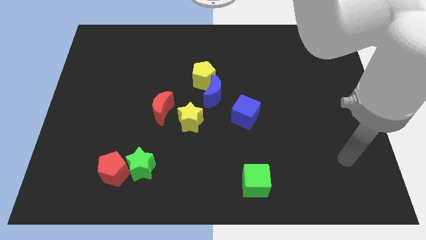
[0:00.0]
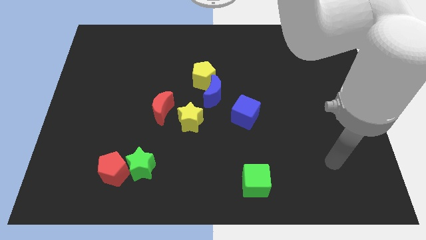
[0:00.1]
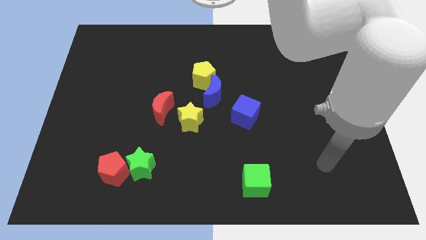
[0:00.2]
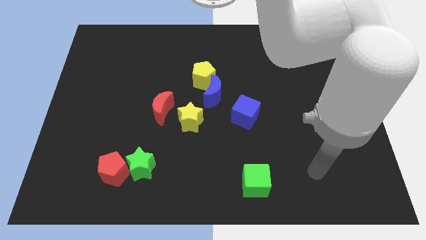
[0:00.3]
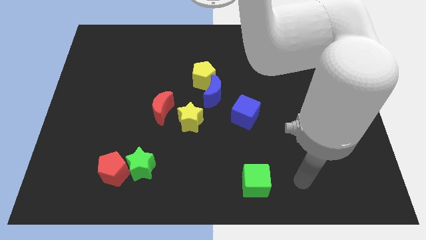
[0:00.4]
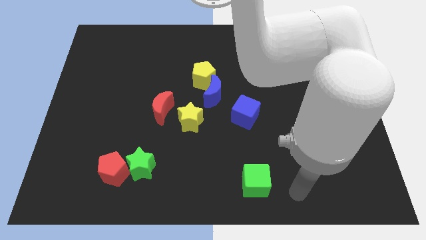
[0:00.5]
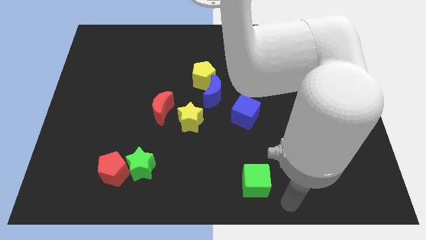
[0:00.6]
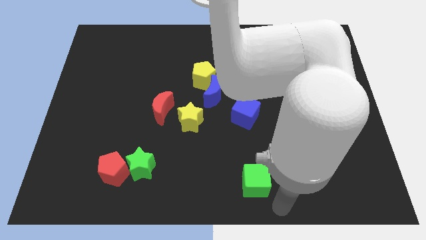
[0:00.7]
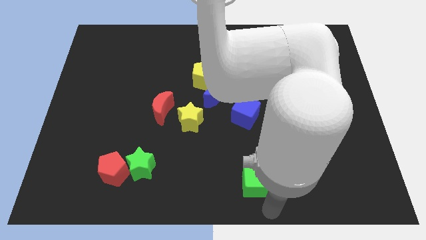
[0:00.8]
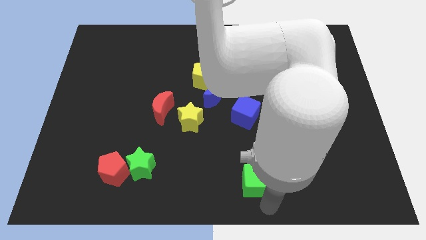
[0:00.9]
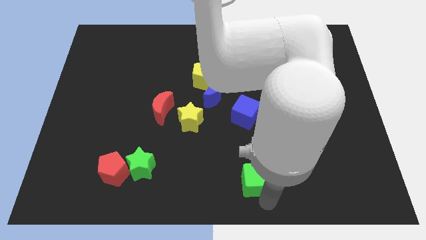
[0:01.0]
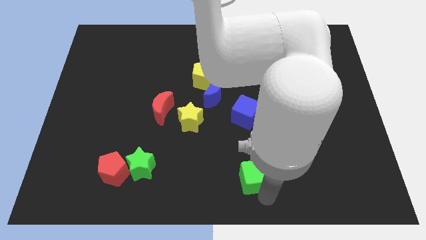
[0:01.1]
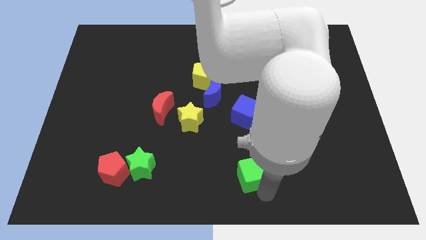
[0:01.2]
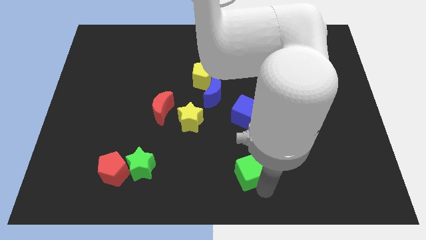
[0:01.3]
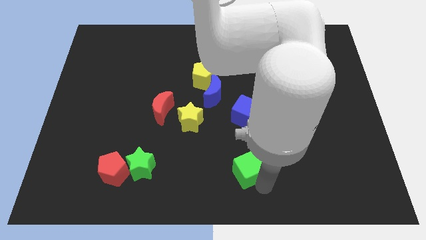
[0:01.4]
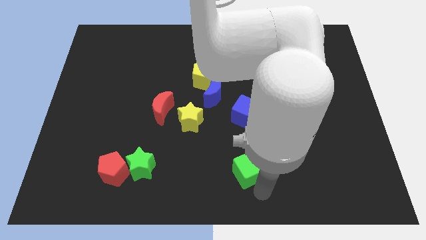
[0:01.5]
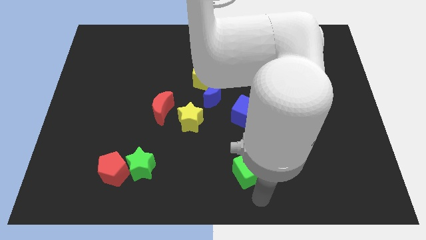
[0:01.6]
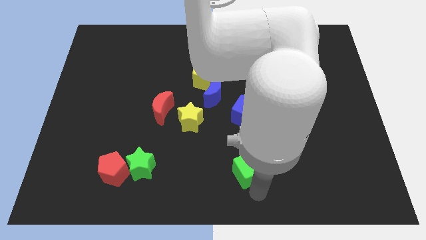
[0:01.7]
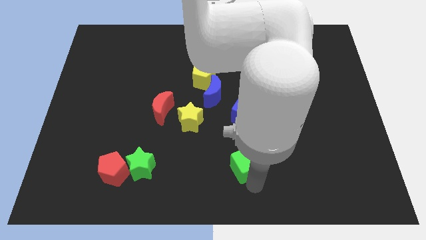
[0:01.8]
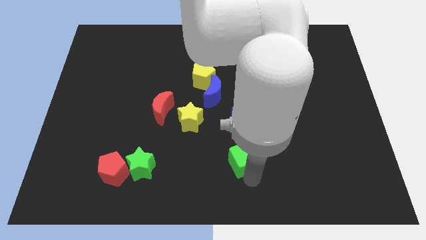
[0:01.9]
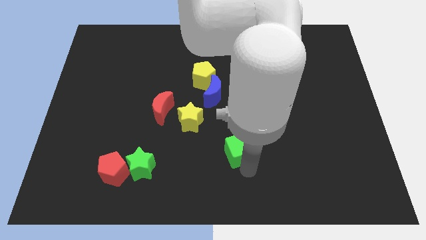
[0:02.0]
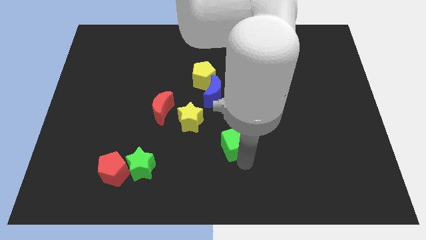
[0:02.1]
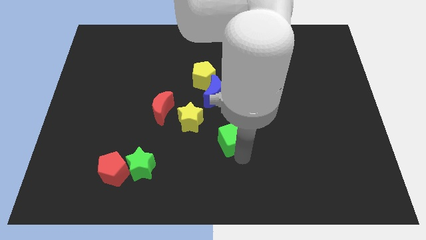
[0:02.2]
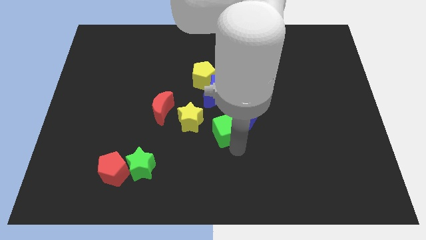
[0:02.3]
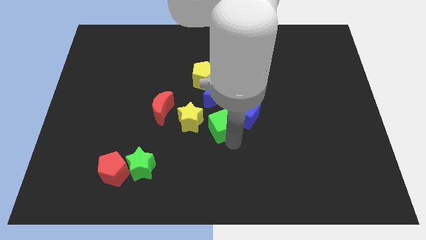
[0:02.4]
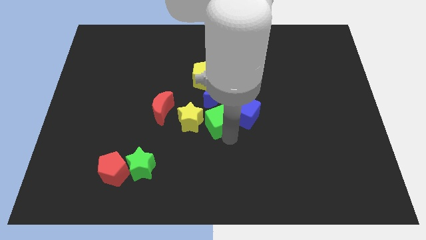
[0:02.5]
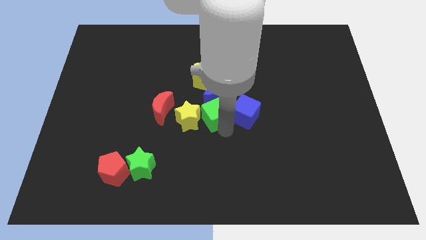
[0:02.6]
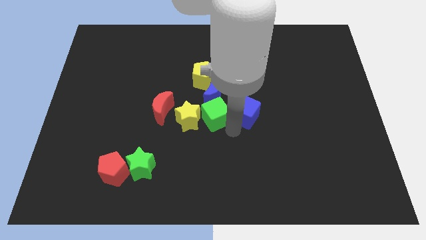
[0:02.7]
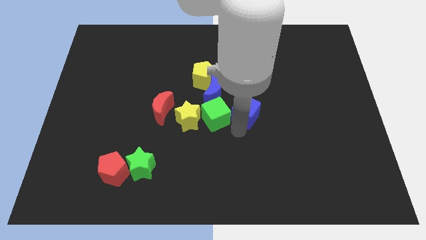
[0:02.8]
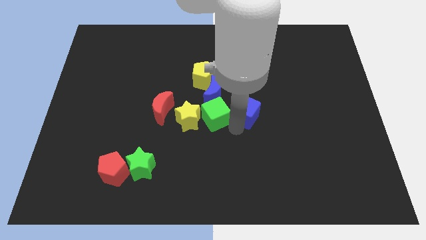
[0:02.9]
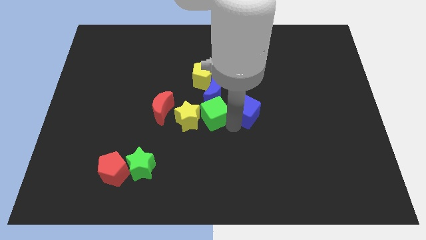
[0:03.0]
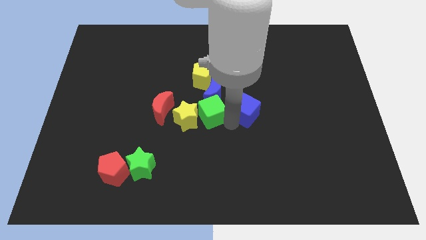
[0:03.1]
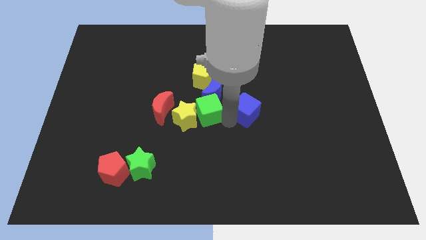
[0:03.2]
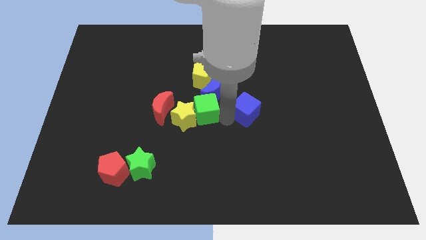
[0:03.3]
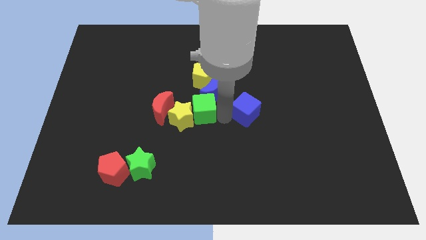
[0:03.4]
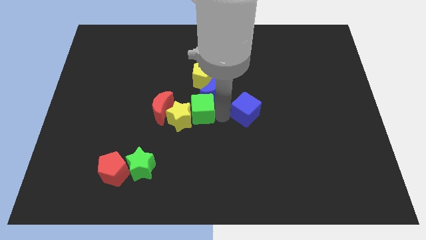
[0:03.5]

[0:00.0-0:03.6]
push the green cube upwards and to the left

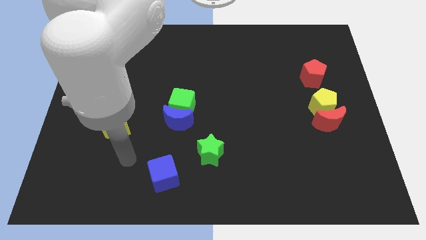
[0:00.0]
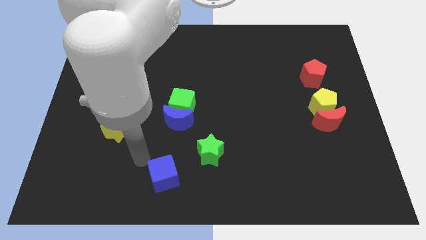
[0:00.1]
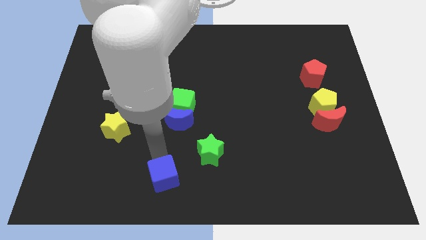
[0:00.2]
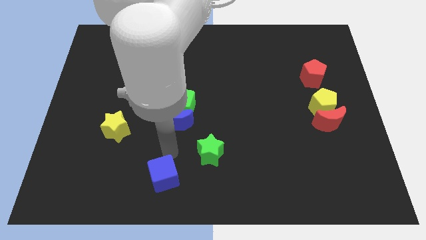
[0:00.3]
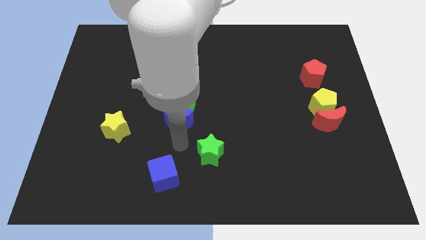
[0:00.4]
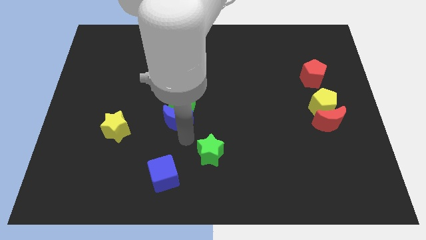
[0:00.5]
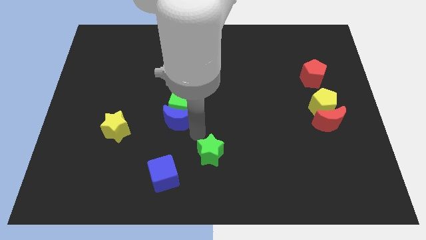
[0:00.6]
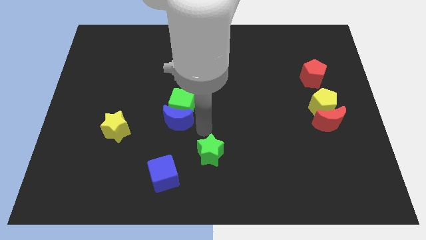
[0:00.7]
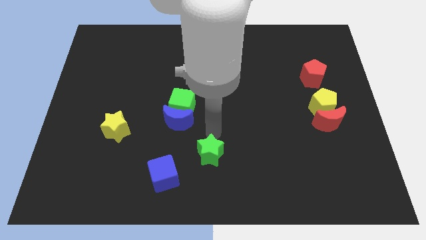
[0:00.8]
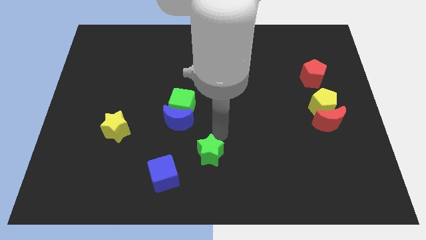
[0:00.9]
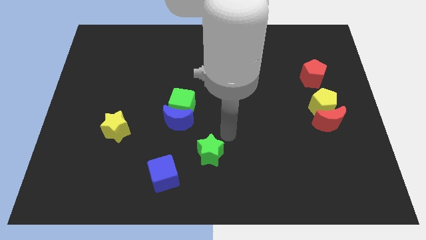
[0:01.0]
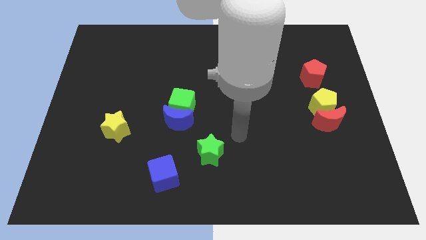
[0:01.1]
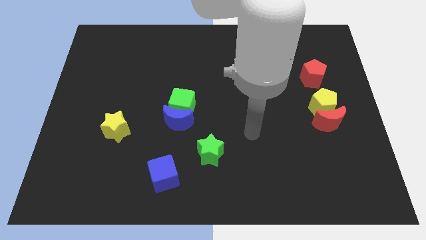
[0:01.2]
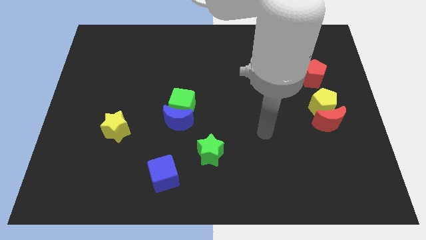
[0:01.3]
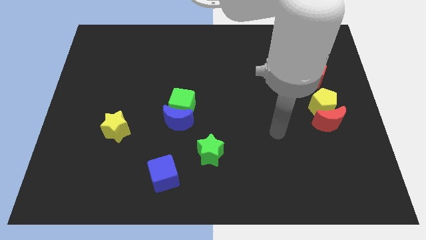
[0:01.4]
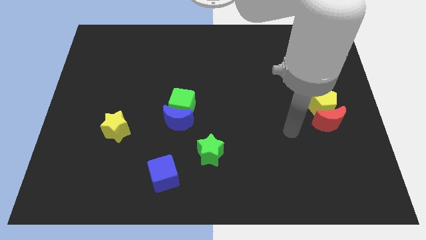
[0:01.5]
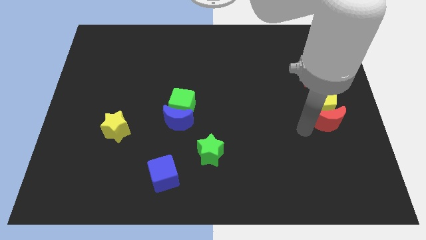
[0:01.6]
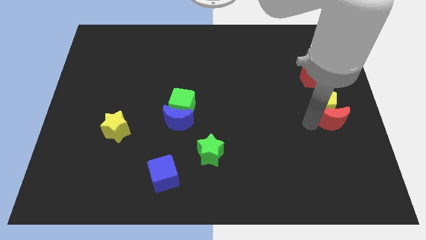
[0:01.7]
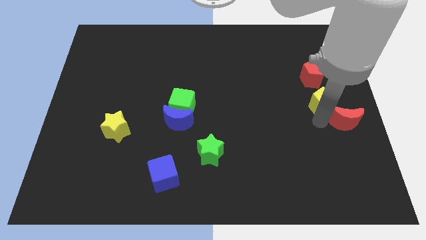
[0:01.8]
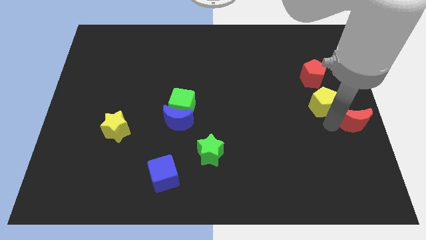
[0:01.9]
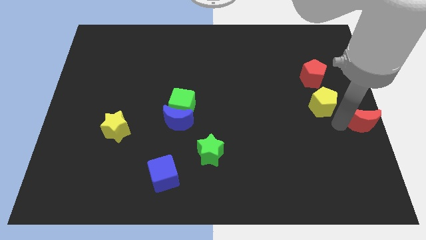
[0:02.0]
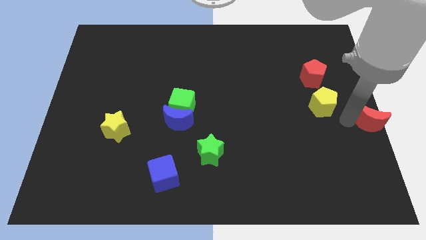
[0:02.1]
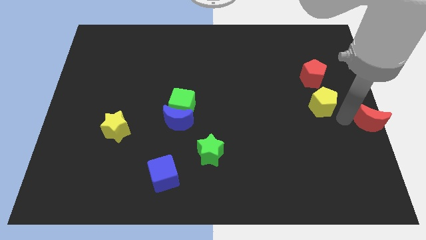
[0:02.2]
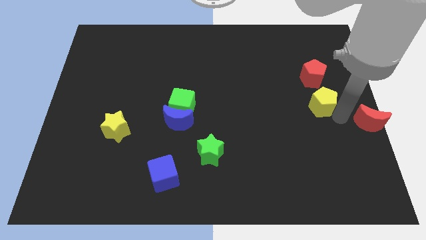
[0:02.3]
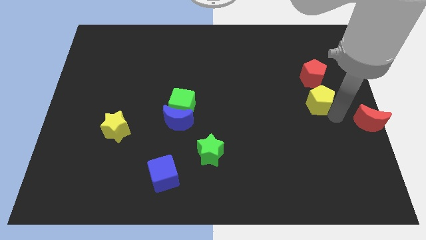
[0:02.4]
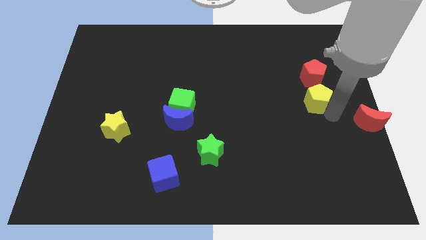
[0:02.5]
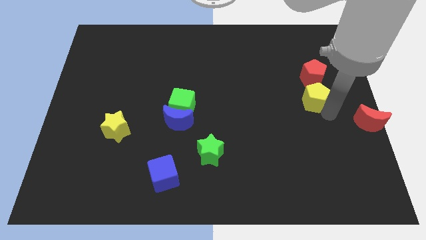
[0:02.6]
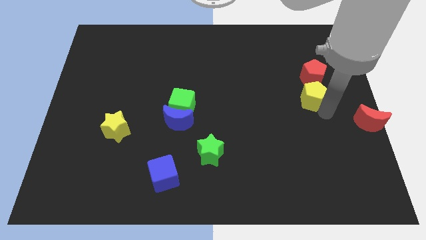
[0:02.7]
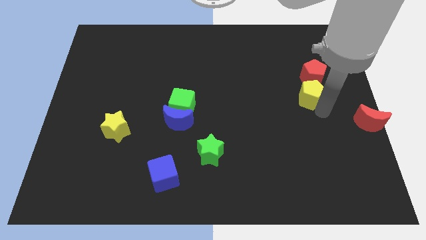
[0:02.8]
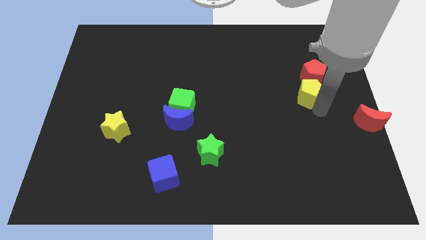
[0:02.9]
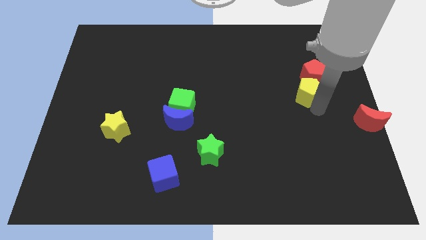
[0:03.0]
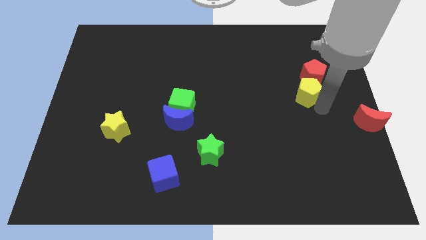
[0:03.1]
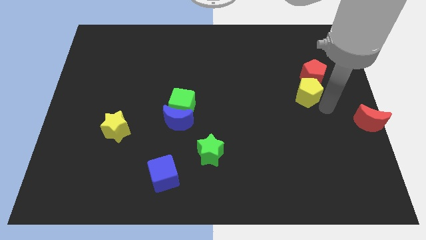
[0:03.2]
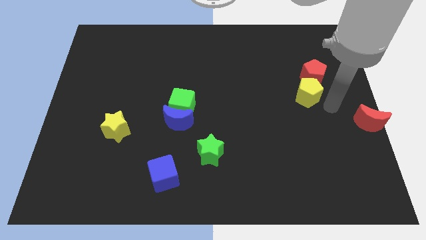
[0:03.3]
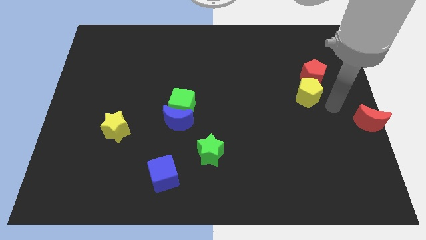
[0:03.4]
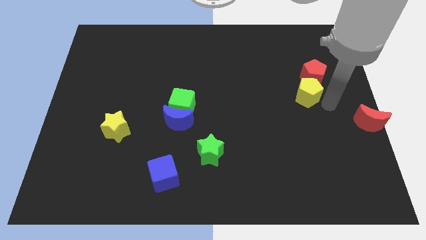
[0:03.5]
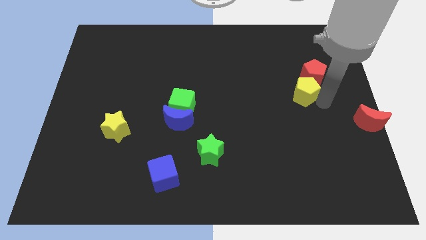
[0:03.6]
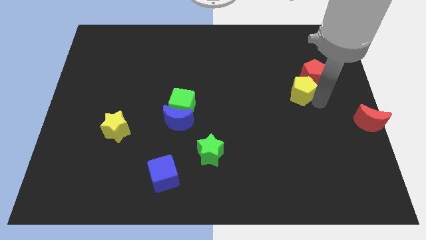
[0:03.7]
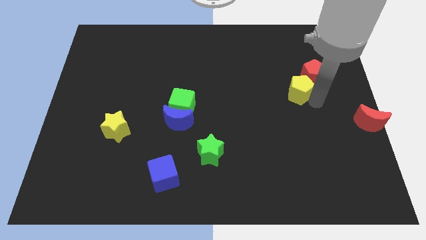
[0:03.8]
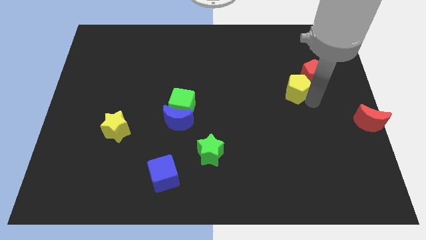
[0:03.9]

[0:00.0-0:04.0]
push the yellow pentagon a little diagonally upwards and to the left

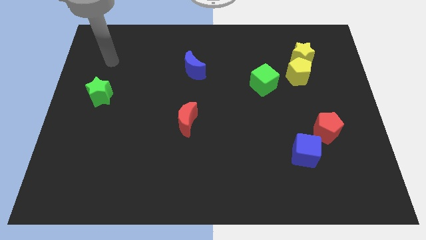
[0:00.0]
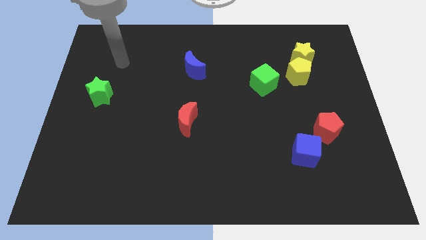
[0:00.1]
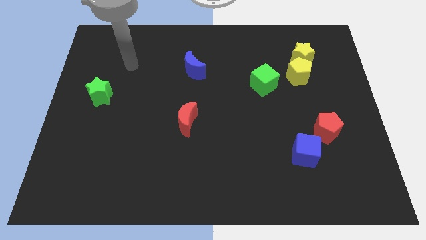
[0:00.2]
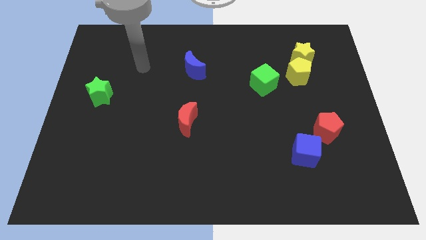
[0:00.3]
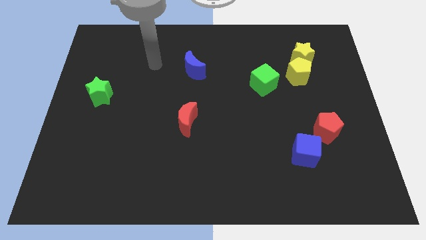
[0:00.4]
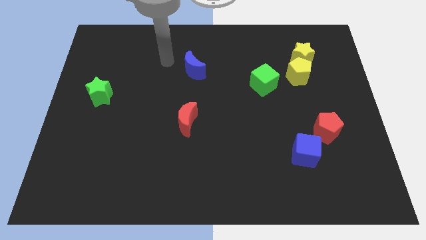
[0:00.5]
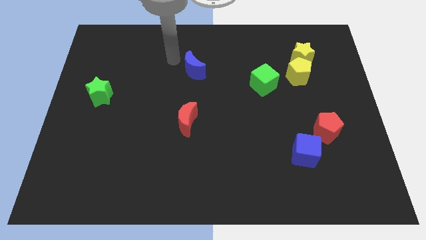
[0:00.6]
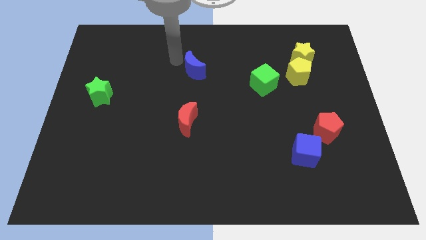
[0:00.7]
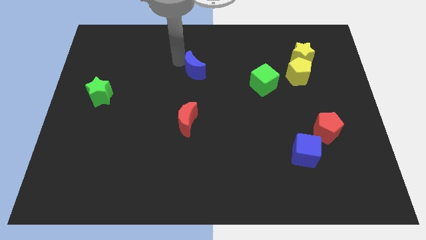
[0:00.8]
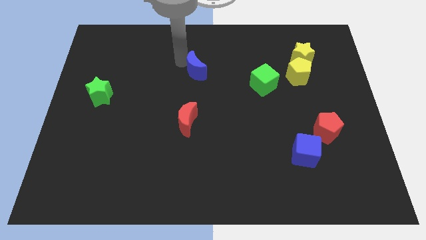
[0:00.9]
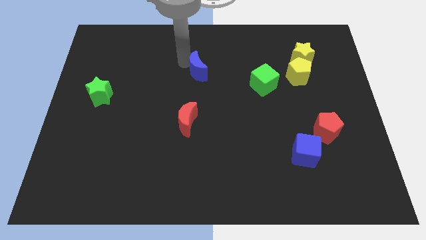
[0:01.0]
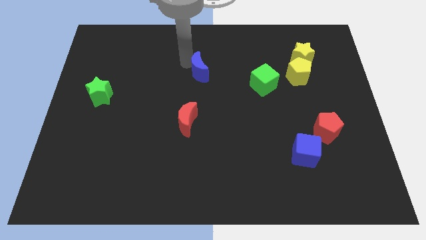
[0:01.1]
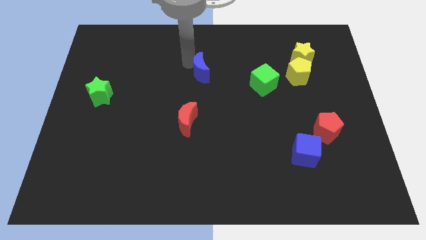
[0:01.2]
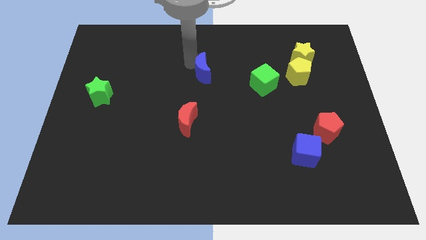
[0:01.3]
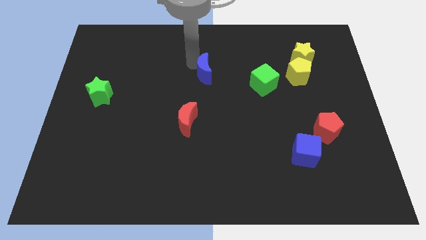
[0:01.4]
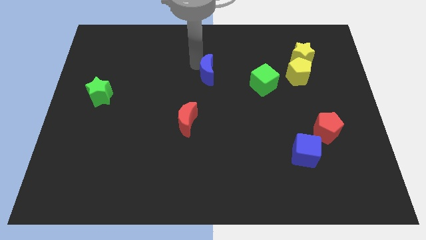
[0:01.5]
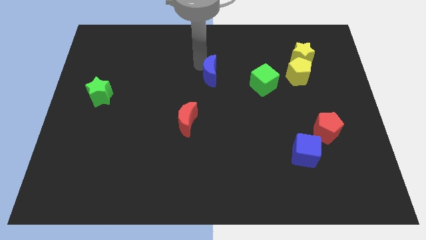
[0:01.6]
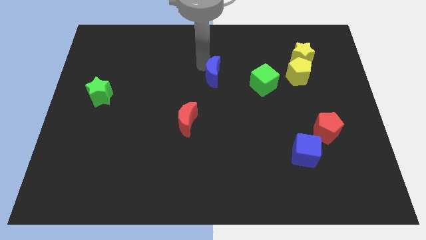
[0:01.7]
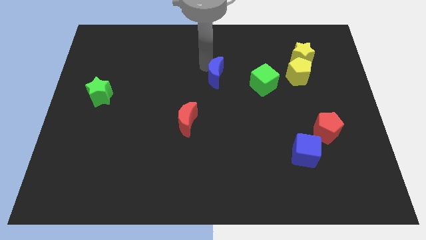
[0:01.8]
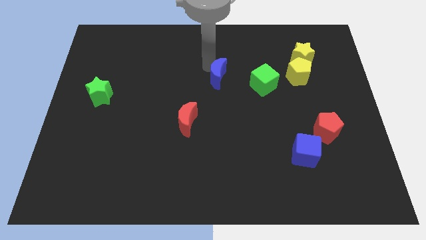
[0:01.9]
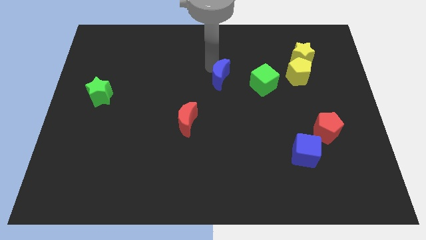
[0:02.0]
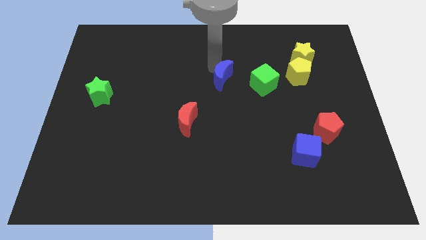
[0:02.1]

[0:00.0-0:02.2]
push the blue moon slightly diagonally downwards and right
